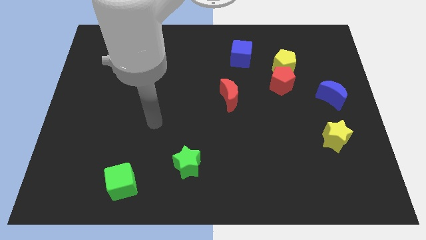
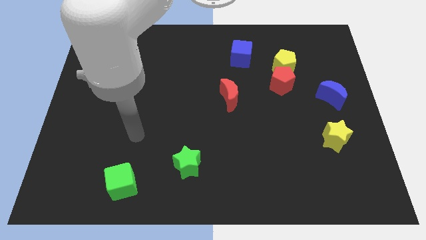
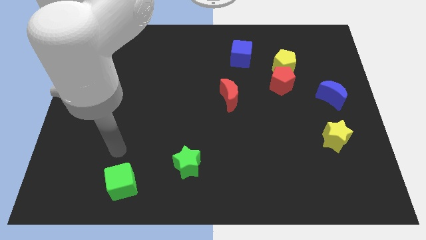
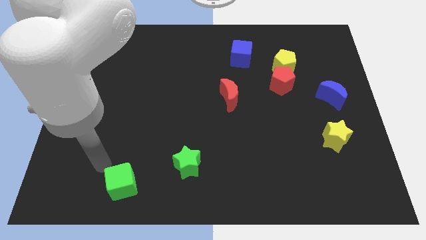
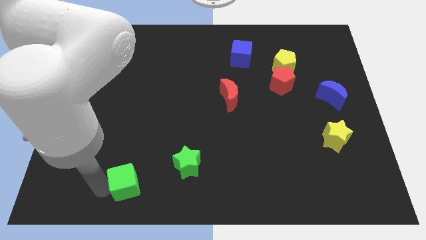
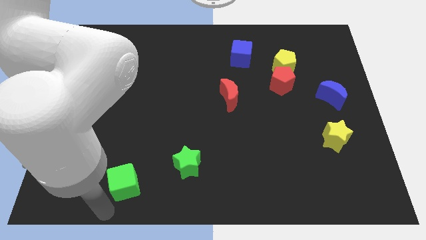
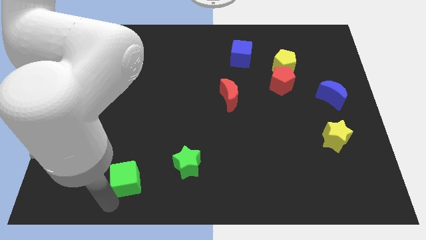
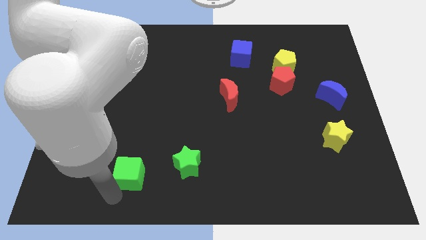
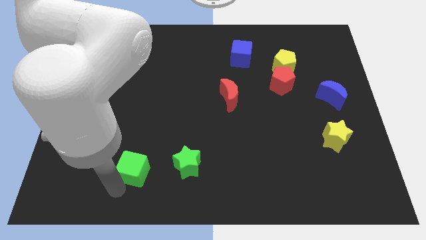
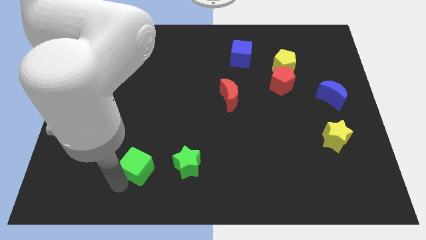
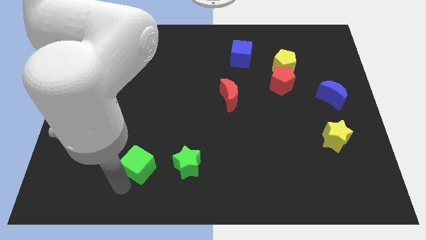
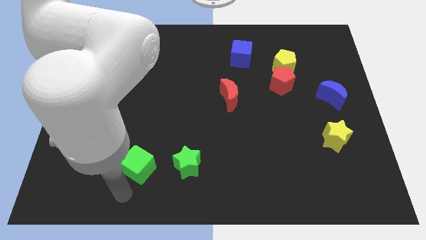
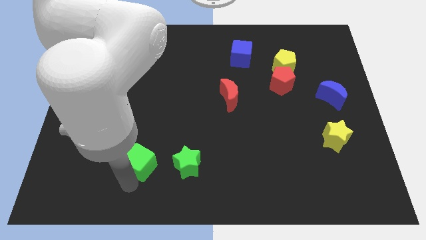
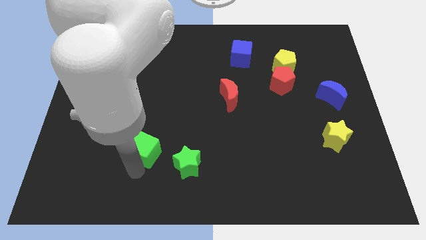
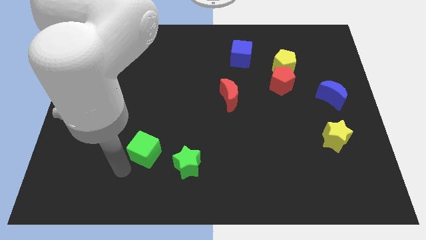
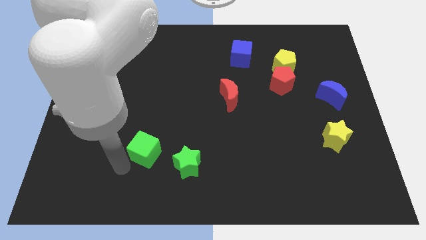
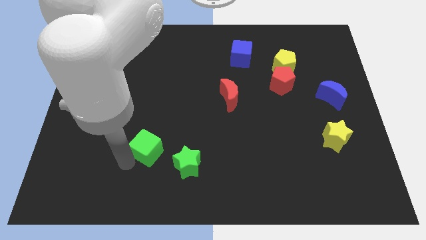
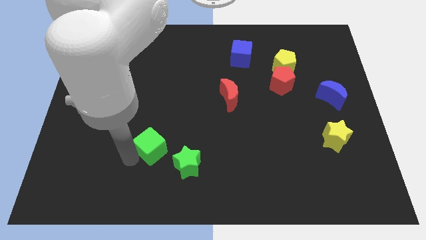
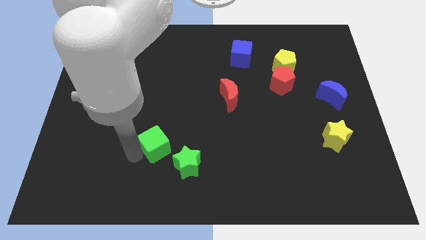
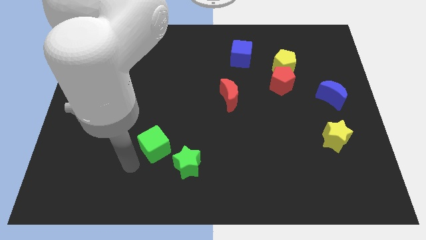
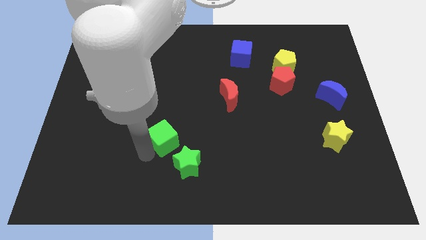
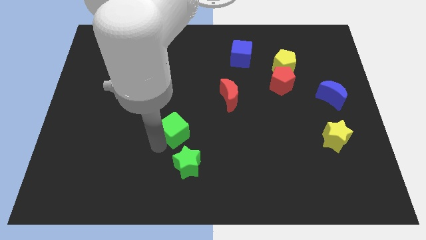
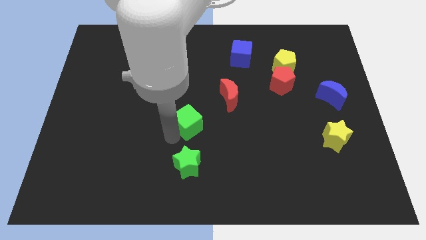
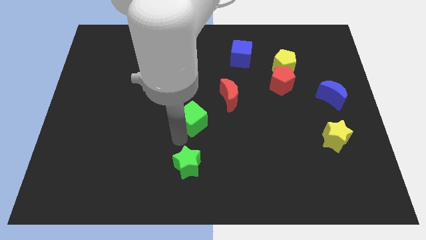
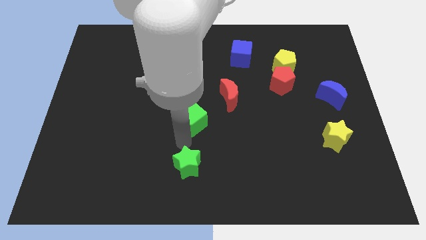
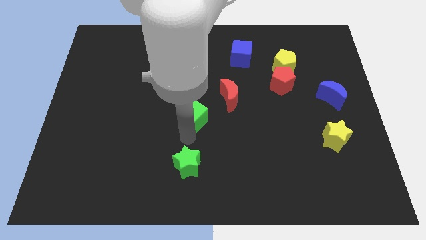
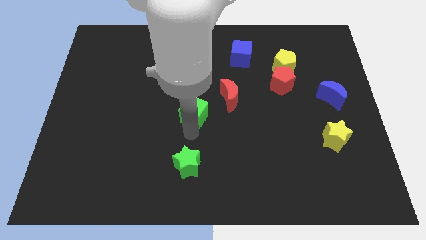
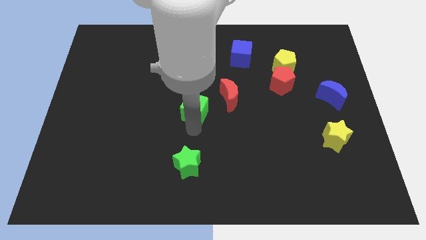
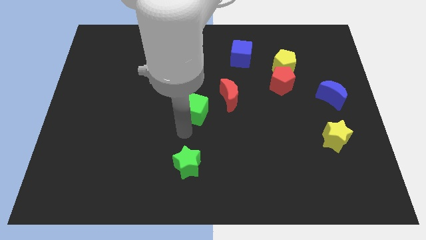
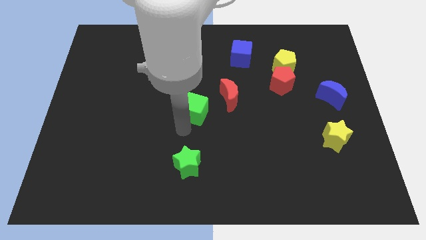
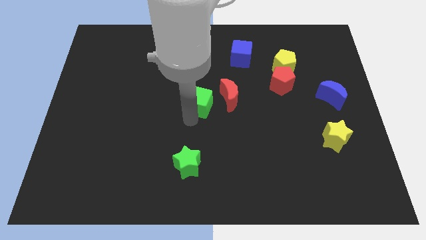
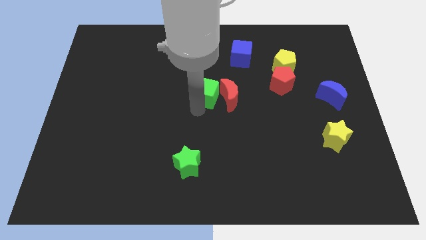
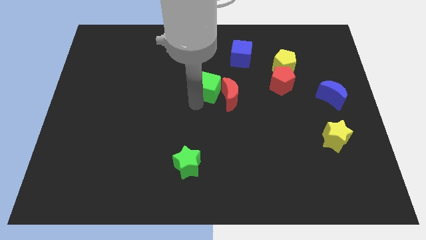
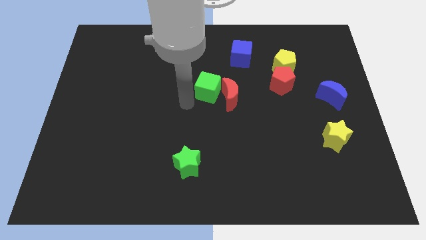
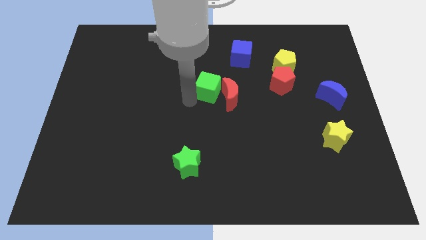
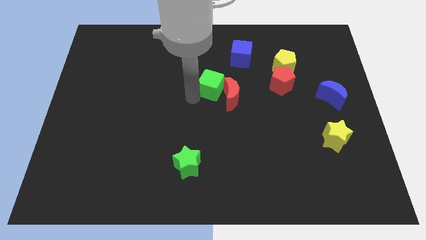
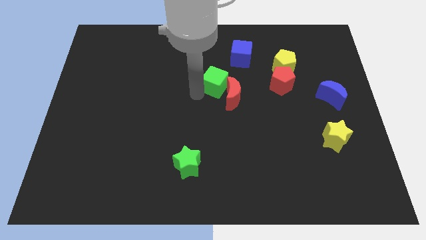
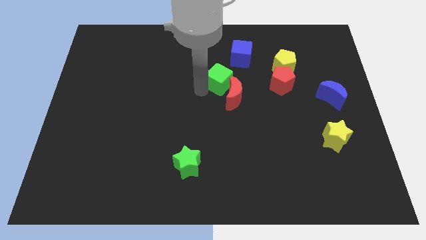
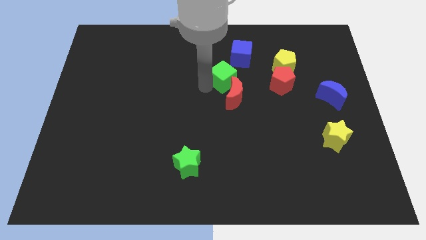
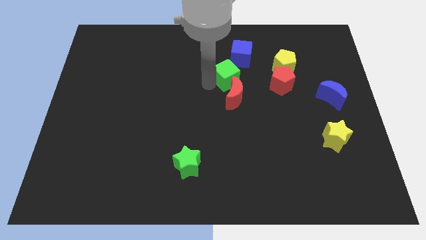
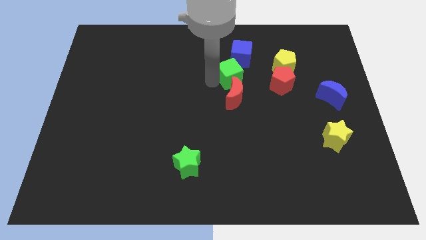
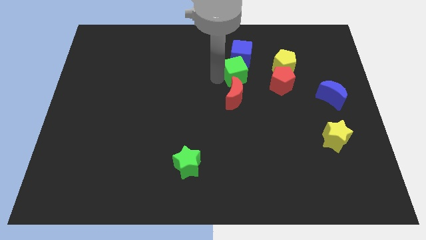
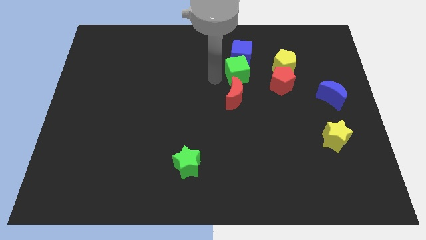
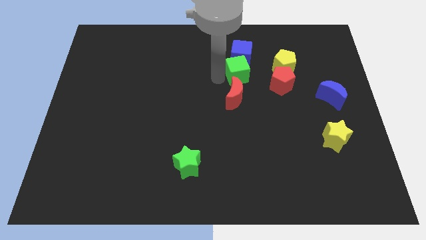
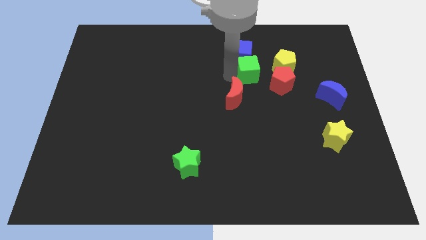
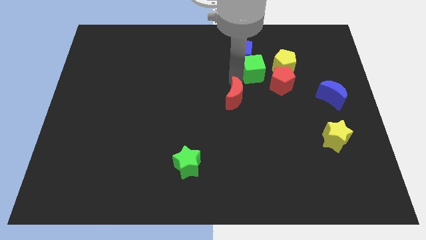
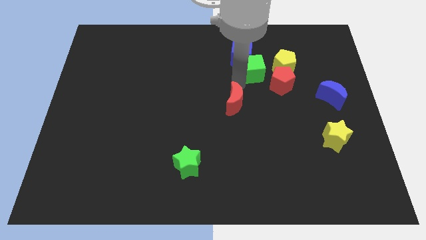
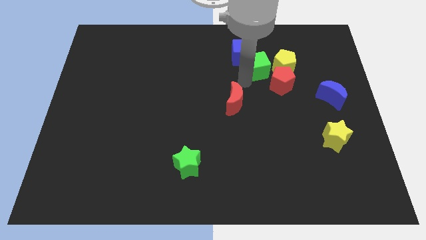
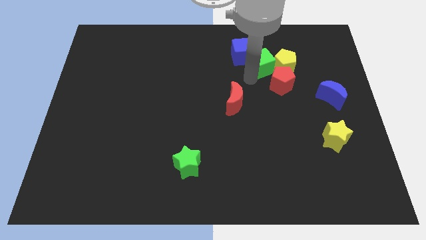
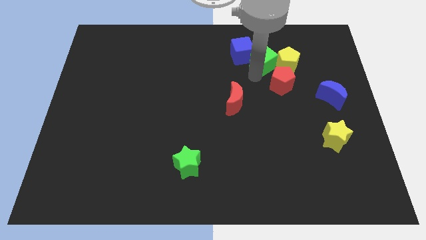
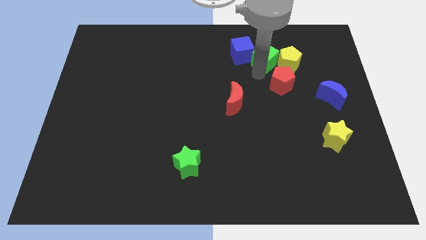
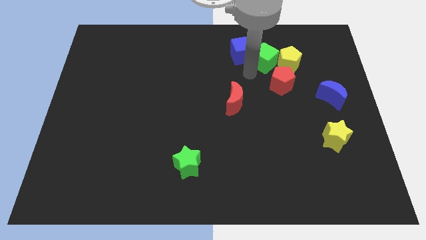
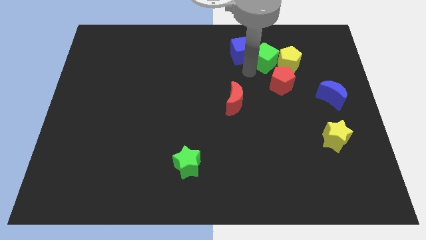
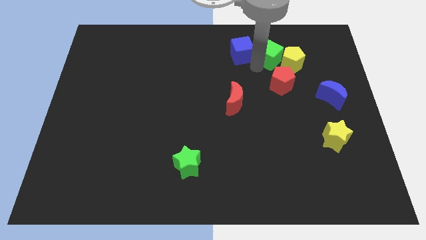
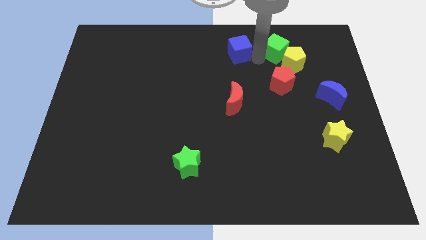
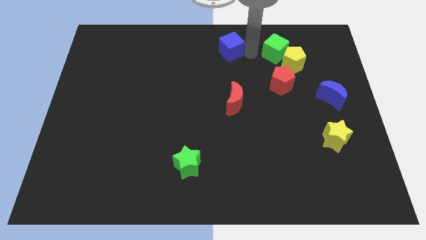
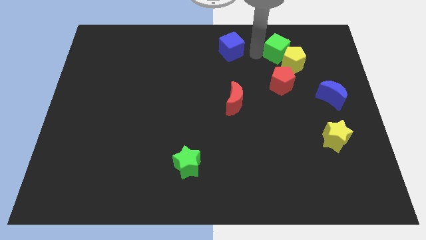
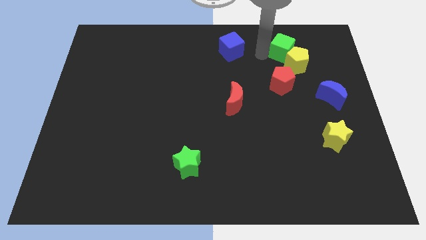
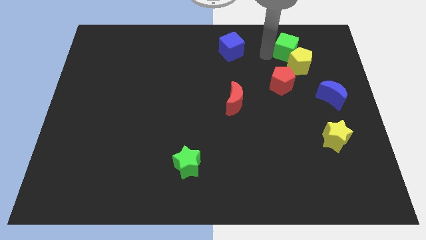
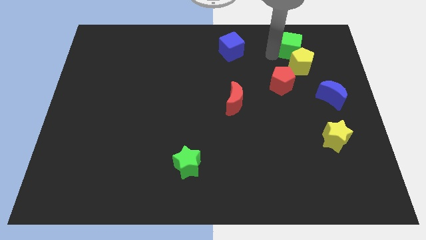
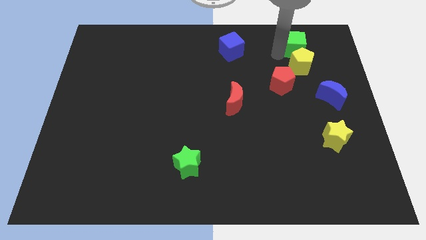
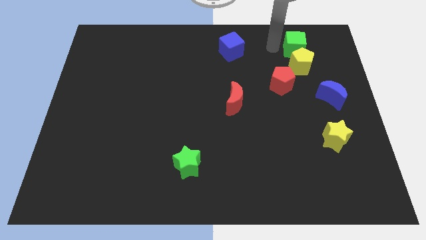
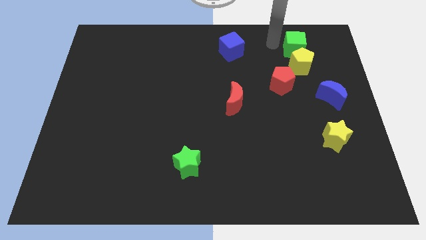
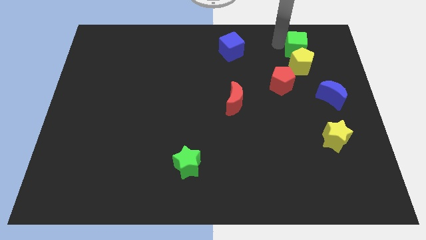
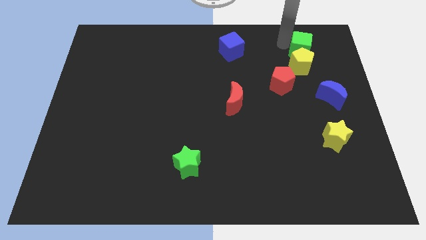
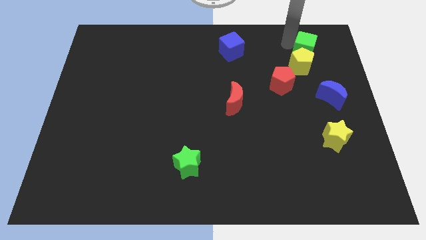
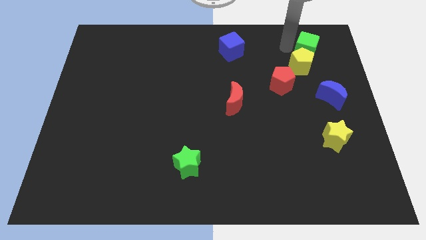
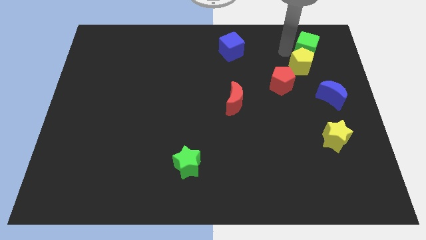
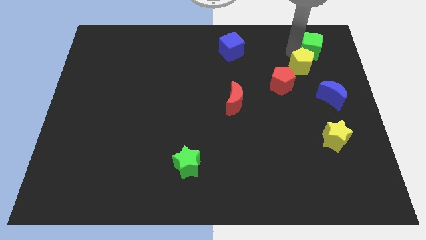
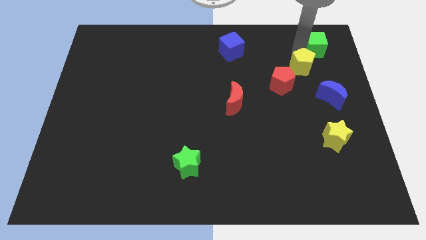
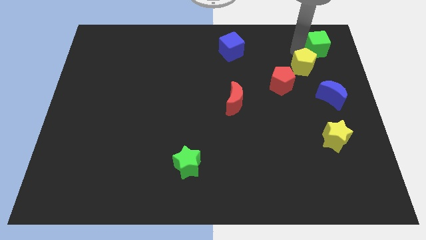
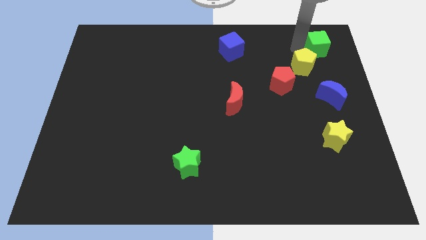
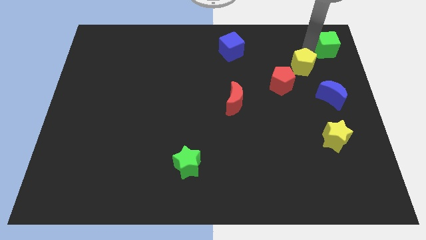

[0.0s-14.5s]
move the green cube to the top right of the board
